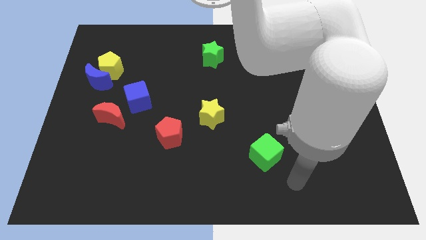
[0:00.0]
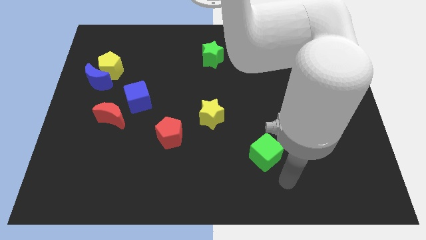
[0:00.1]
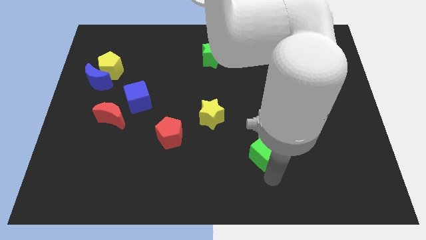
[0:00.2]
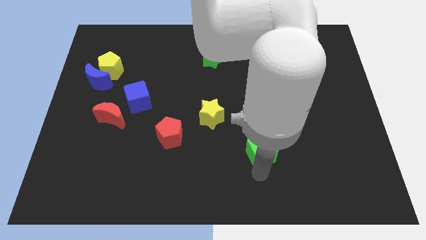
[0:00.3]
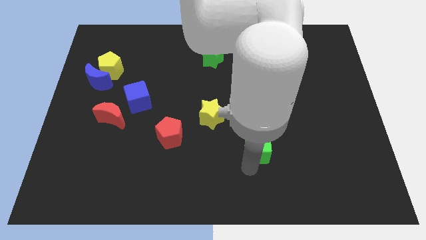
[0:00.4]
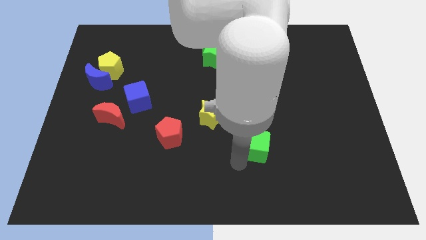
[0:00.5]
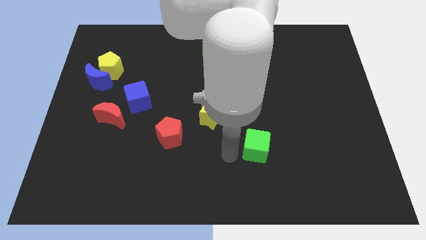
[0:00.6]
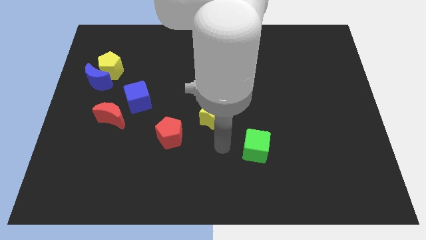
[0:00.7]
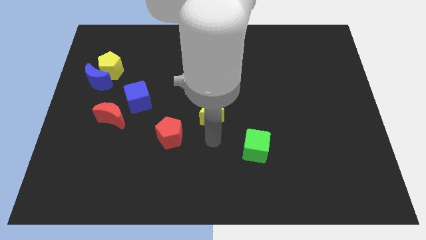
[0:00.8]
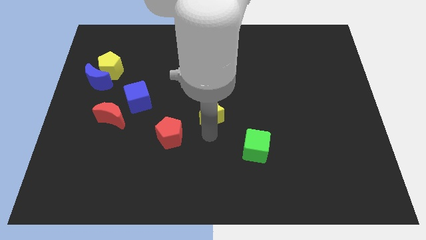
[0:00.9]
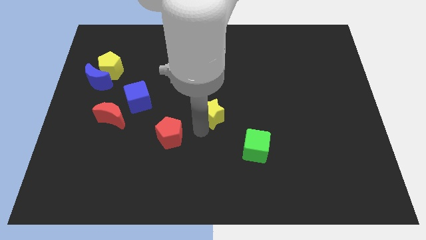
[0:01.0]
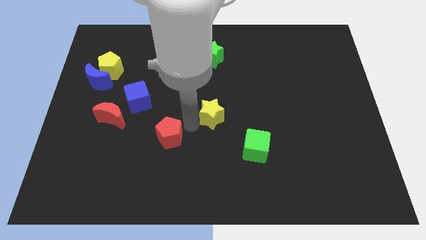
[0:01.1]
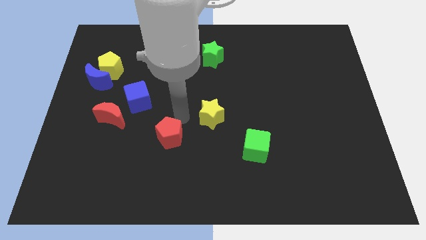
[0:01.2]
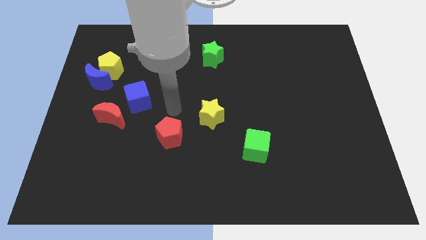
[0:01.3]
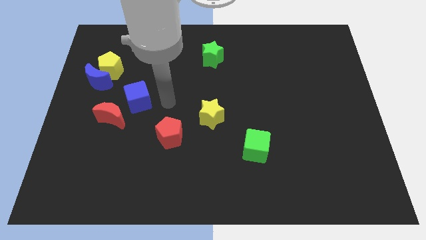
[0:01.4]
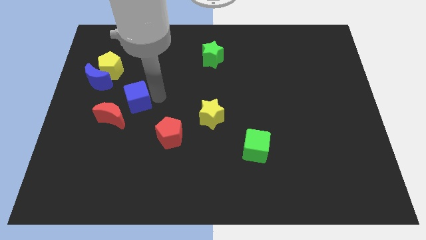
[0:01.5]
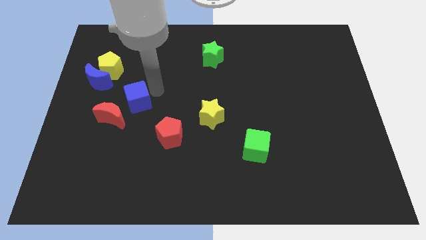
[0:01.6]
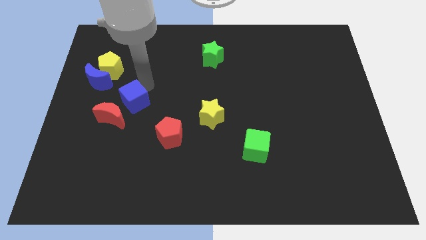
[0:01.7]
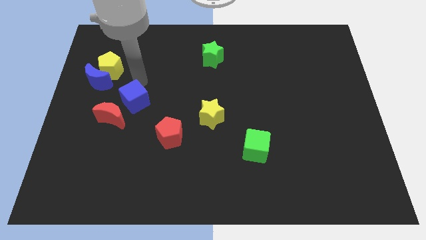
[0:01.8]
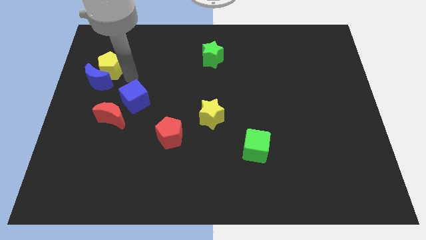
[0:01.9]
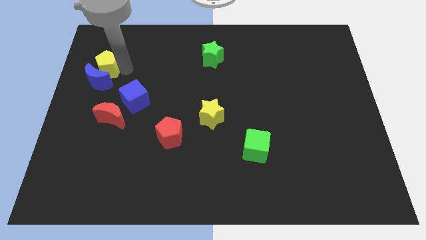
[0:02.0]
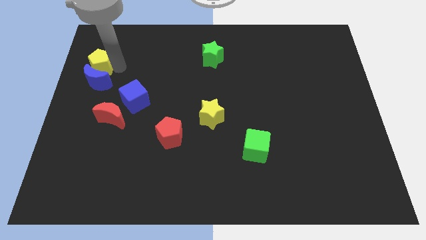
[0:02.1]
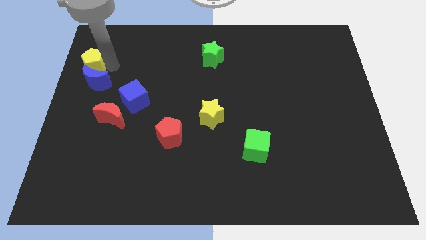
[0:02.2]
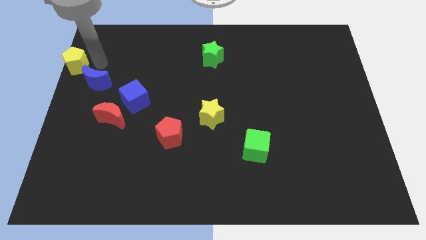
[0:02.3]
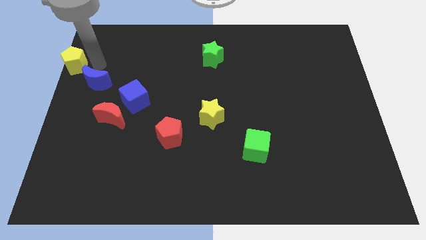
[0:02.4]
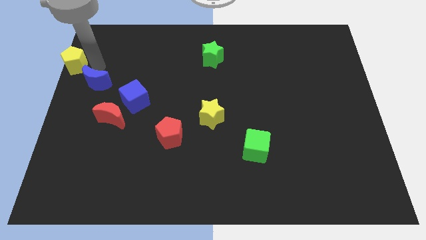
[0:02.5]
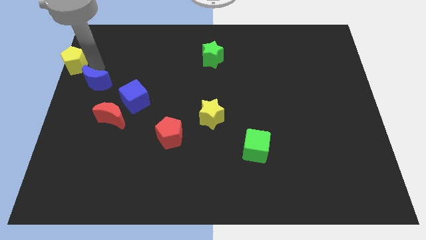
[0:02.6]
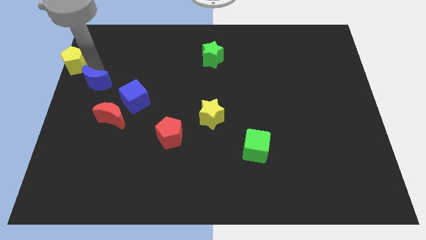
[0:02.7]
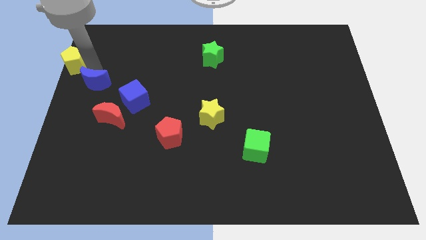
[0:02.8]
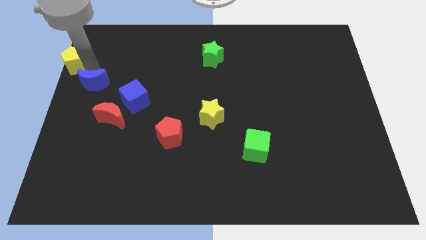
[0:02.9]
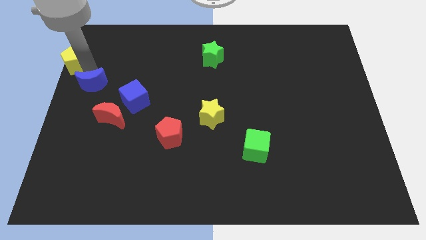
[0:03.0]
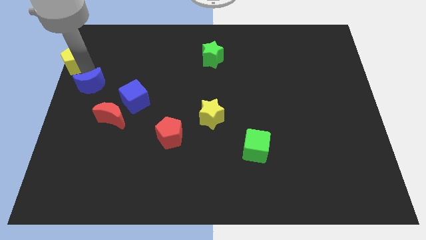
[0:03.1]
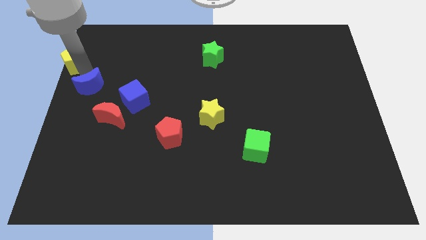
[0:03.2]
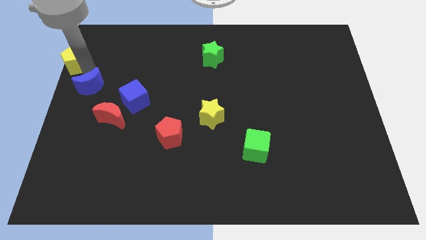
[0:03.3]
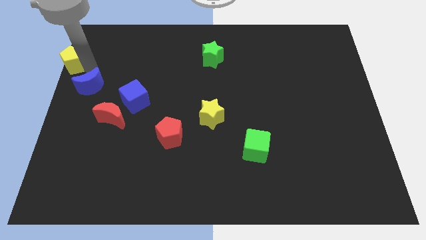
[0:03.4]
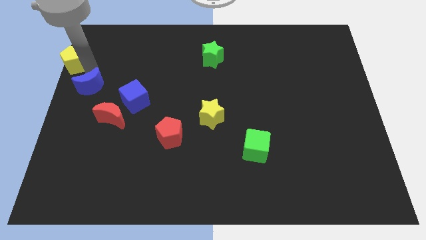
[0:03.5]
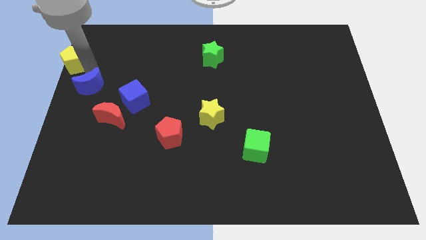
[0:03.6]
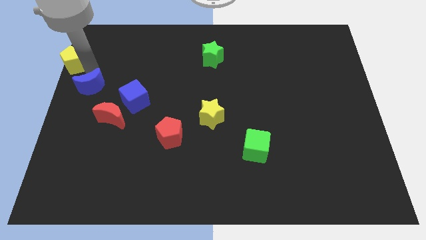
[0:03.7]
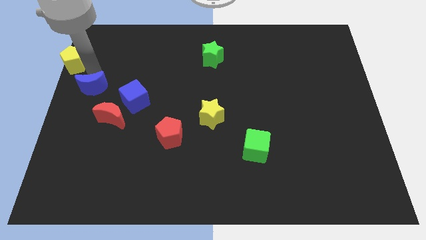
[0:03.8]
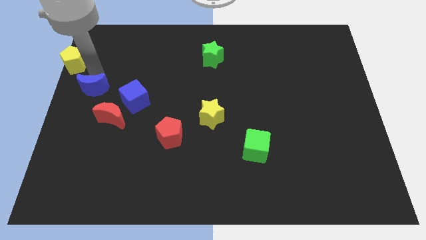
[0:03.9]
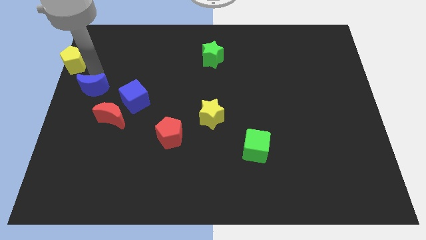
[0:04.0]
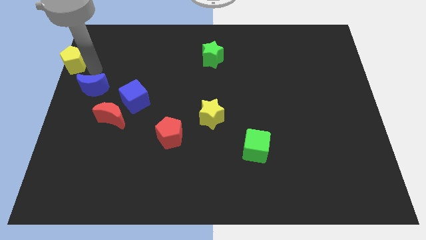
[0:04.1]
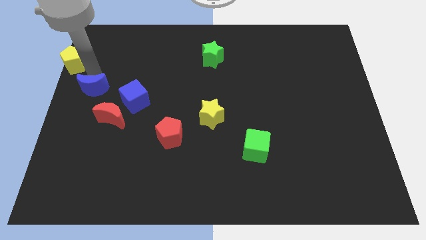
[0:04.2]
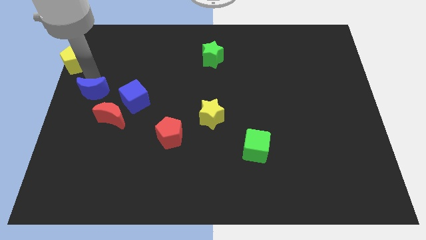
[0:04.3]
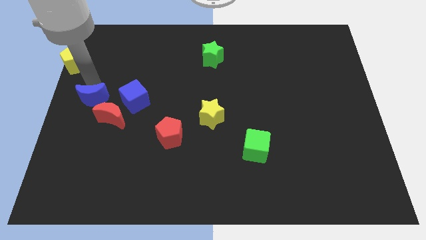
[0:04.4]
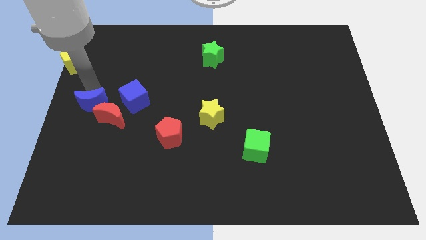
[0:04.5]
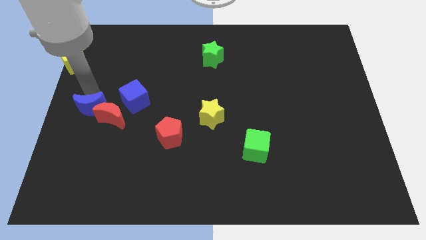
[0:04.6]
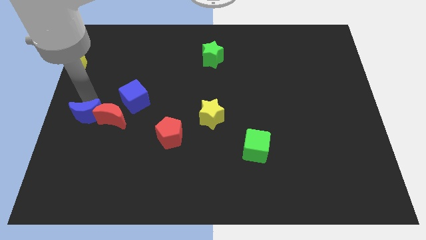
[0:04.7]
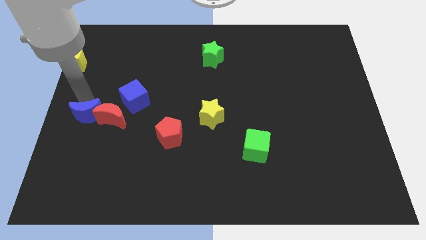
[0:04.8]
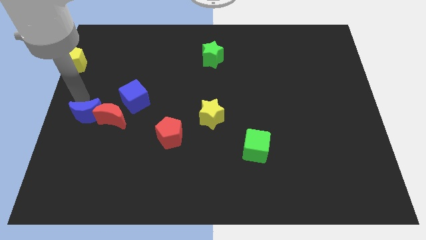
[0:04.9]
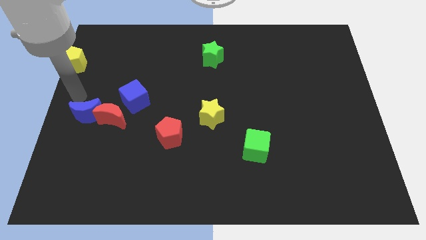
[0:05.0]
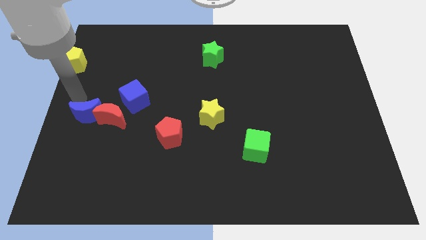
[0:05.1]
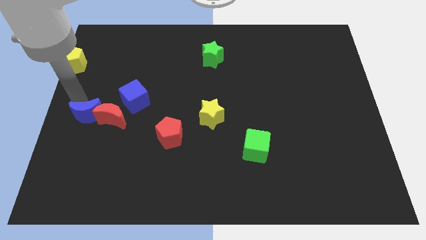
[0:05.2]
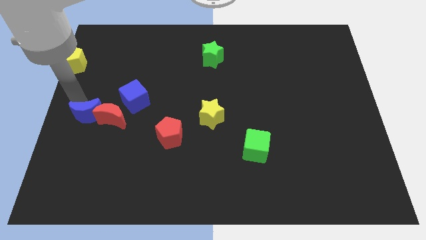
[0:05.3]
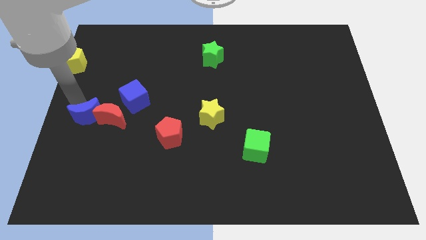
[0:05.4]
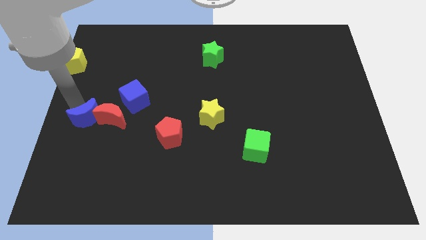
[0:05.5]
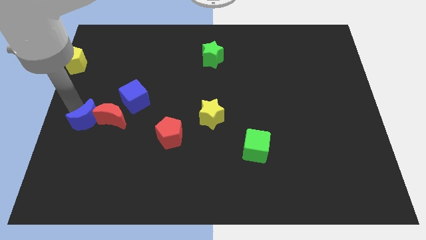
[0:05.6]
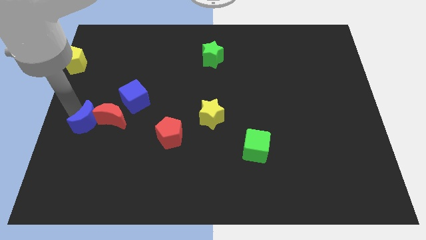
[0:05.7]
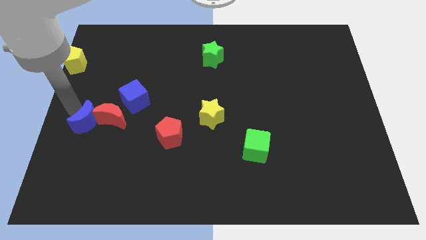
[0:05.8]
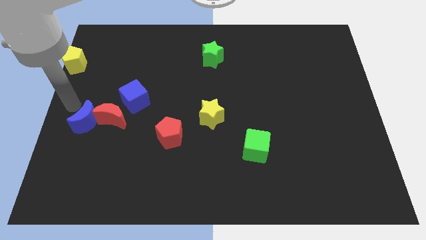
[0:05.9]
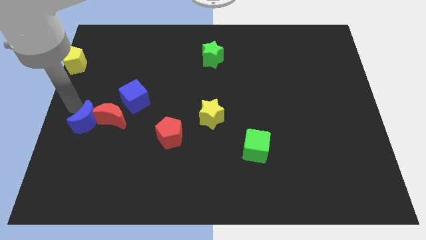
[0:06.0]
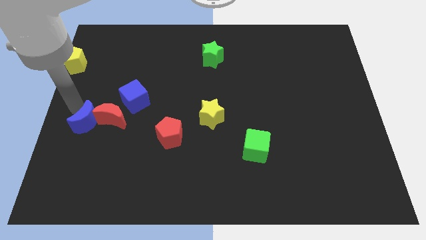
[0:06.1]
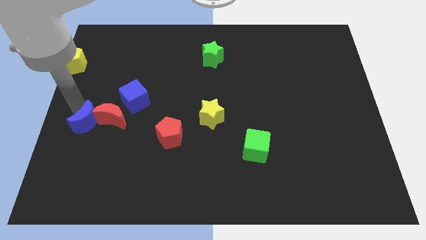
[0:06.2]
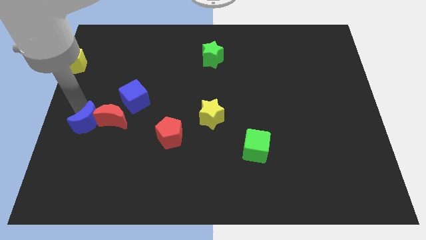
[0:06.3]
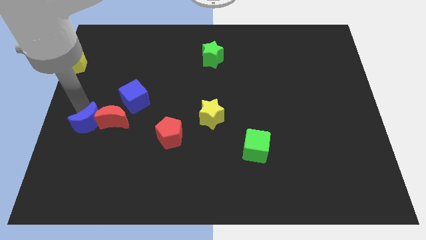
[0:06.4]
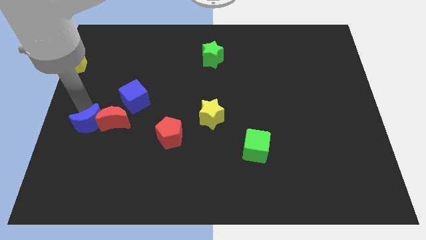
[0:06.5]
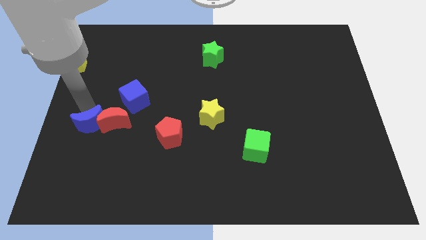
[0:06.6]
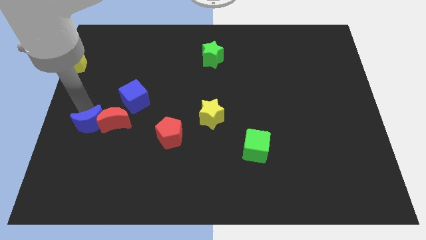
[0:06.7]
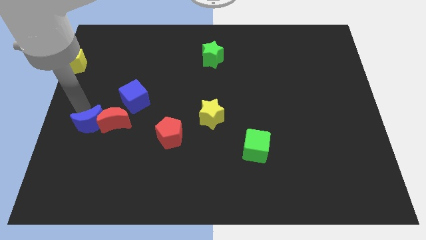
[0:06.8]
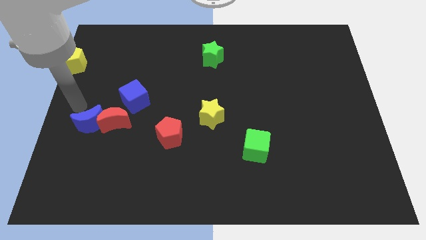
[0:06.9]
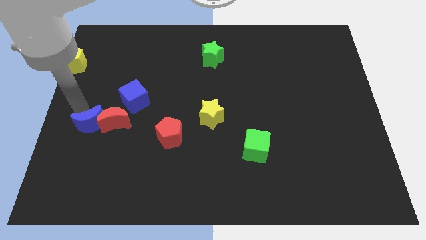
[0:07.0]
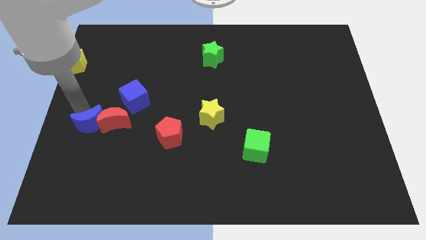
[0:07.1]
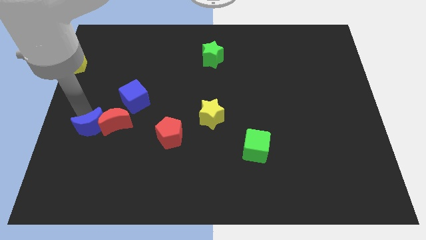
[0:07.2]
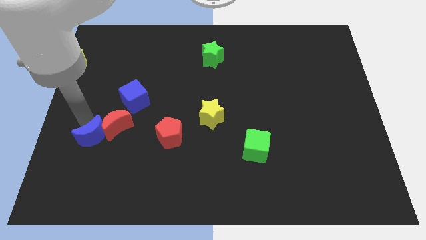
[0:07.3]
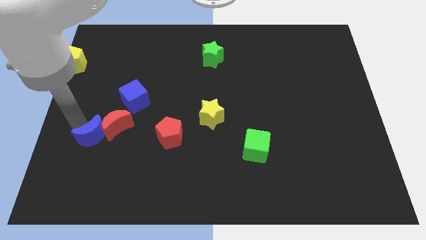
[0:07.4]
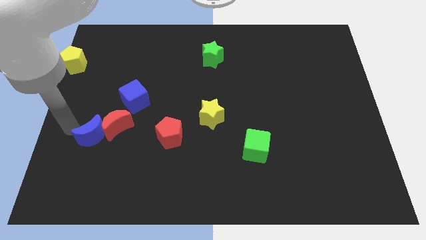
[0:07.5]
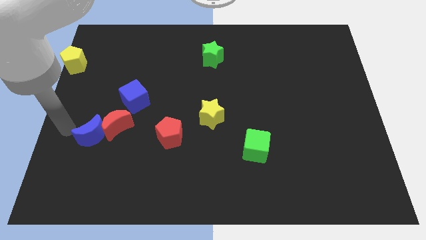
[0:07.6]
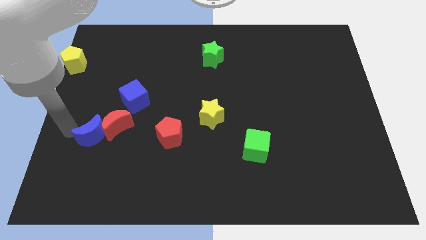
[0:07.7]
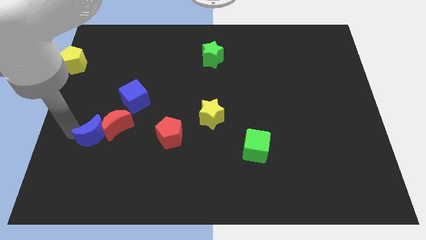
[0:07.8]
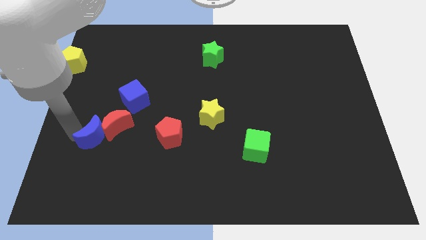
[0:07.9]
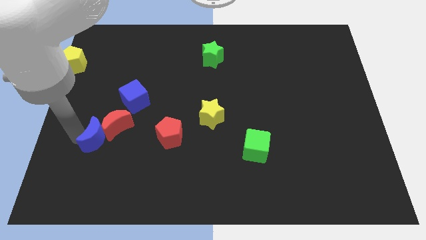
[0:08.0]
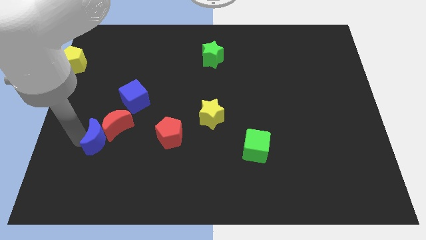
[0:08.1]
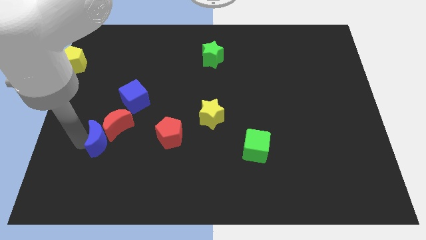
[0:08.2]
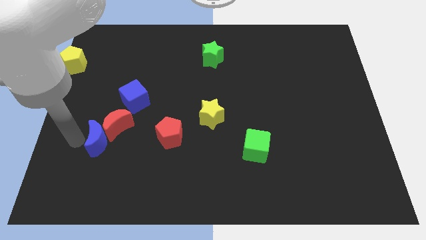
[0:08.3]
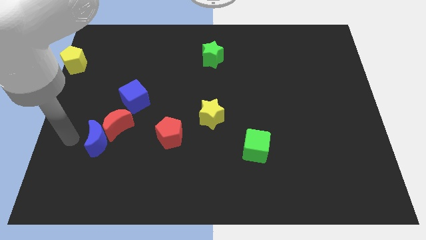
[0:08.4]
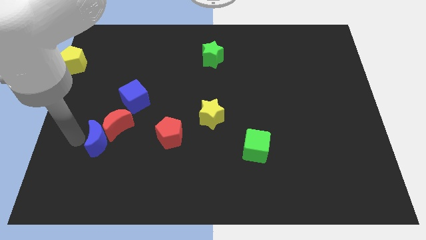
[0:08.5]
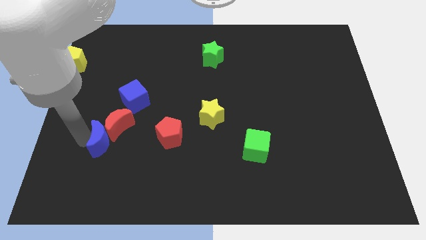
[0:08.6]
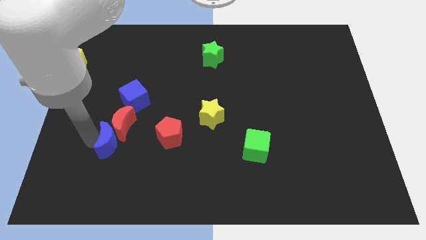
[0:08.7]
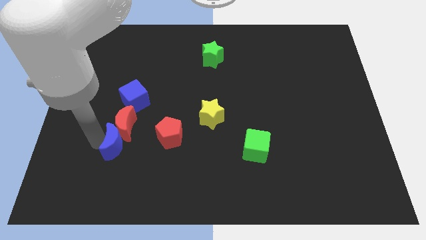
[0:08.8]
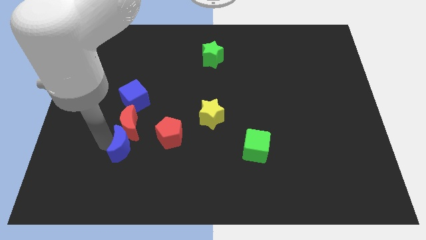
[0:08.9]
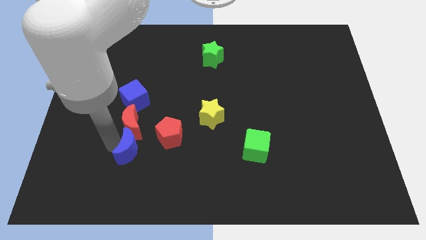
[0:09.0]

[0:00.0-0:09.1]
move the blue moon diagonally down and right
